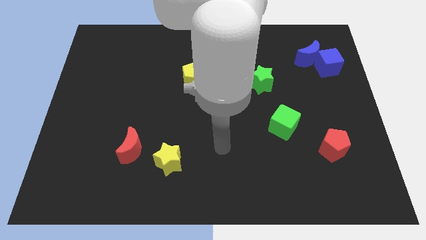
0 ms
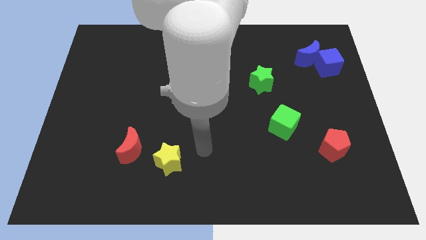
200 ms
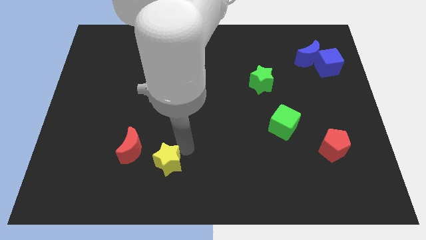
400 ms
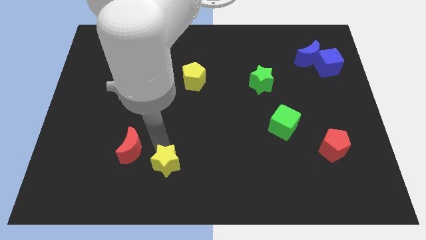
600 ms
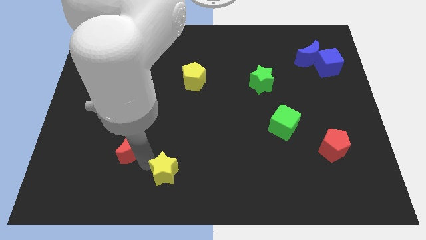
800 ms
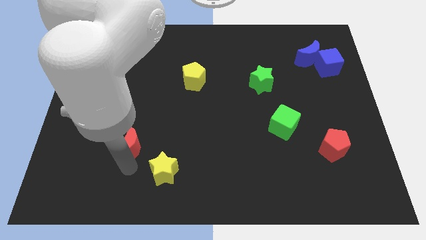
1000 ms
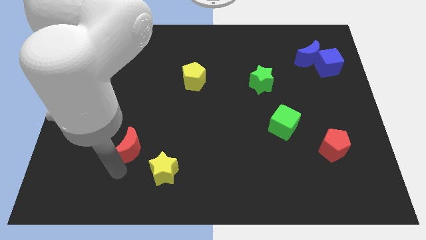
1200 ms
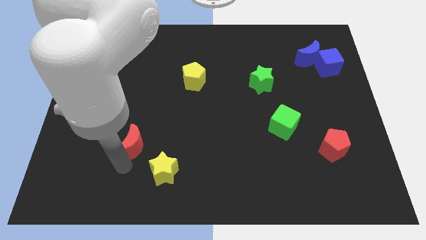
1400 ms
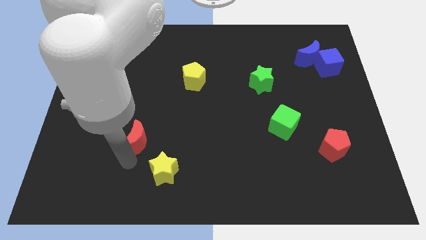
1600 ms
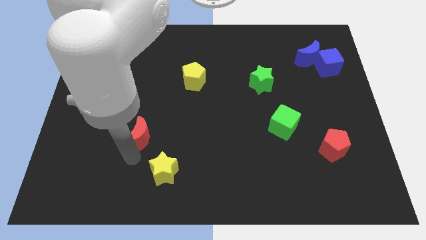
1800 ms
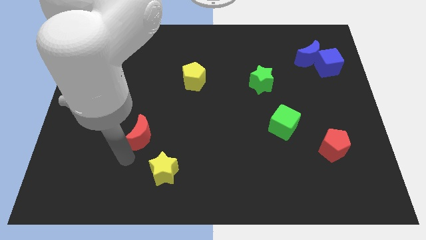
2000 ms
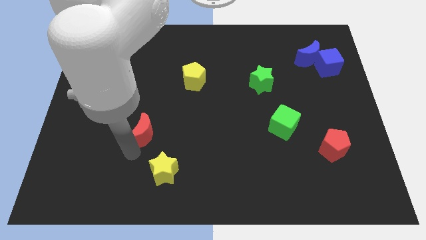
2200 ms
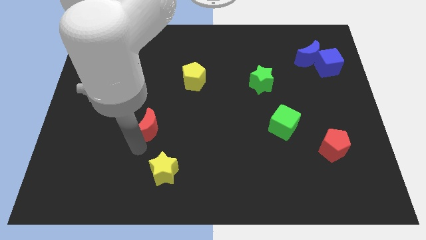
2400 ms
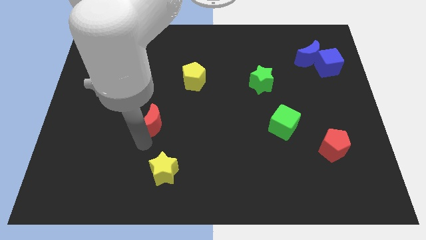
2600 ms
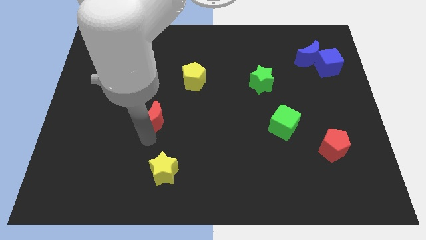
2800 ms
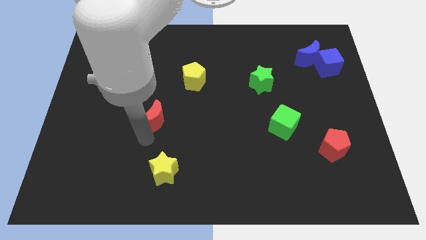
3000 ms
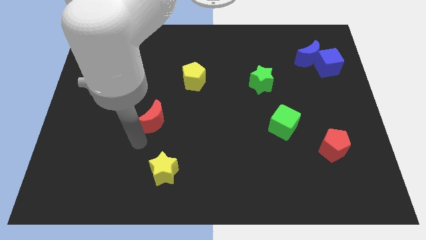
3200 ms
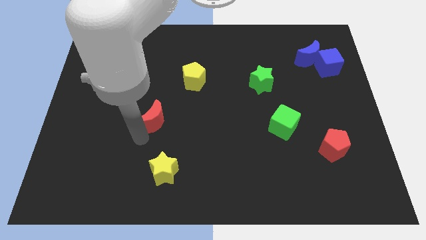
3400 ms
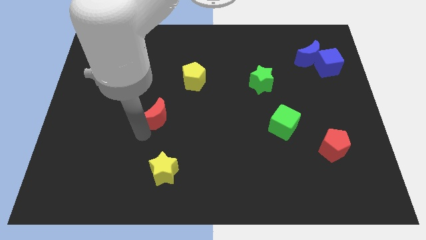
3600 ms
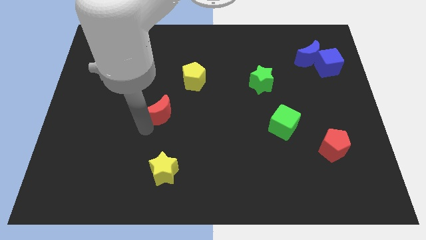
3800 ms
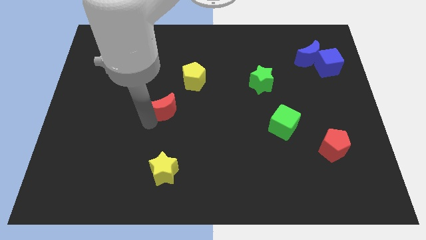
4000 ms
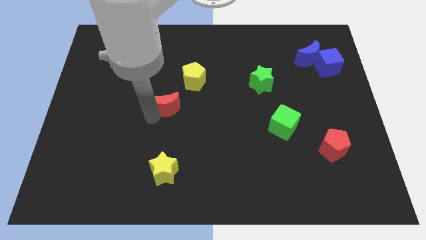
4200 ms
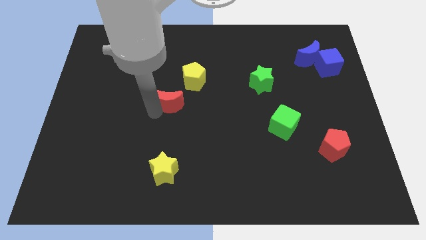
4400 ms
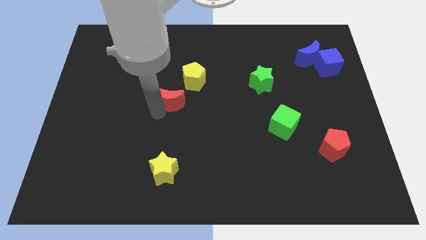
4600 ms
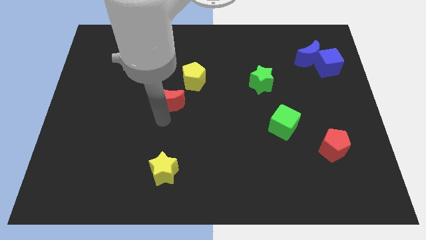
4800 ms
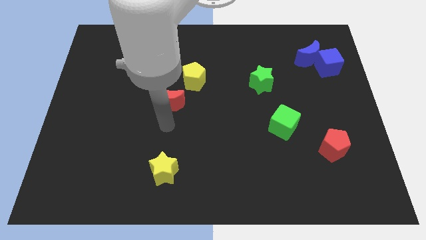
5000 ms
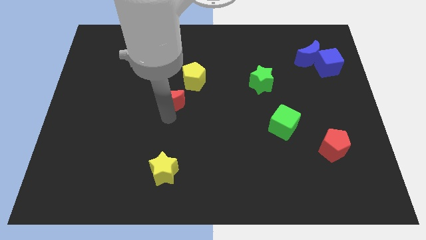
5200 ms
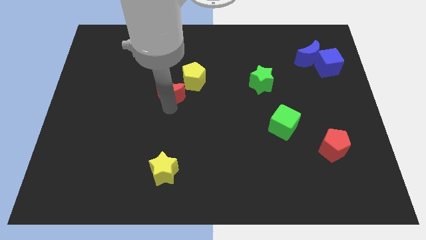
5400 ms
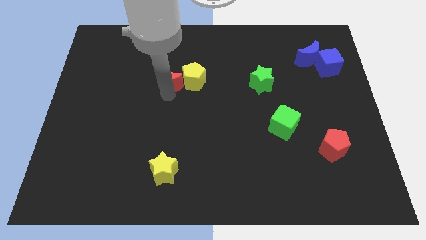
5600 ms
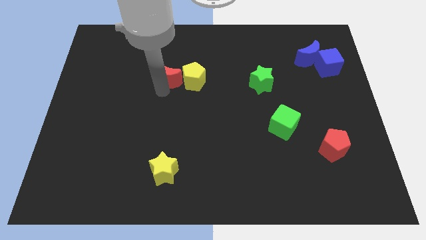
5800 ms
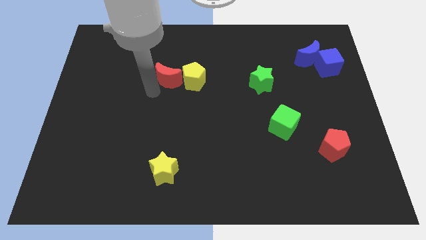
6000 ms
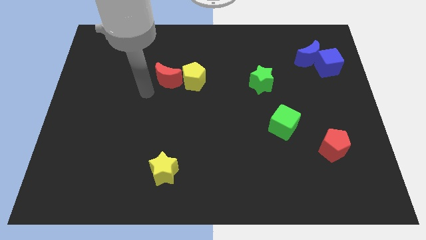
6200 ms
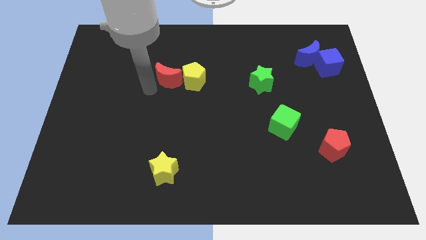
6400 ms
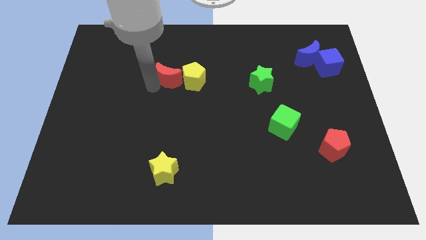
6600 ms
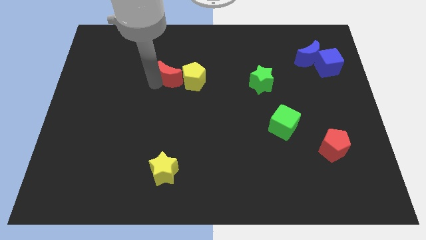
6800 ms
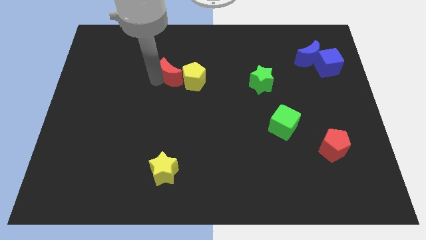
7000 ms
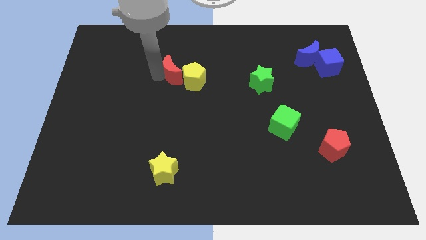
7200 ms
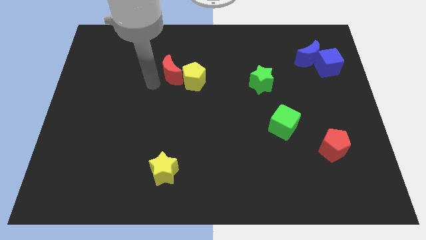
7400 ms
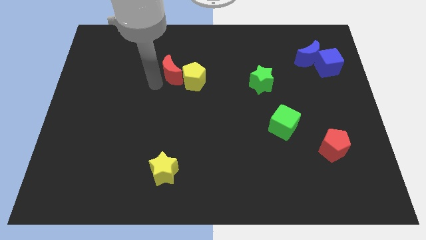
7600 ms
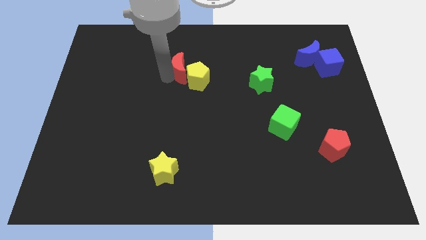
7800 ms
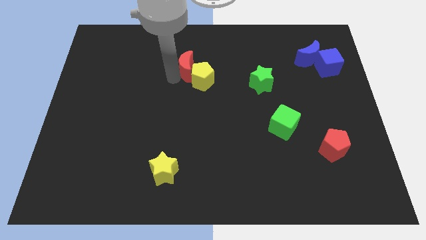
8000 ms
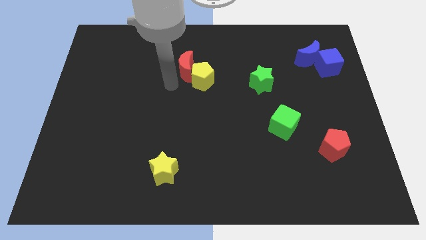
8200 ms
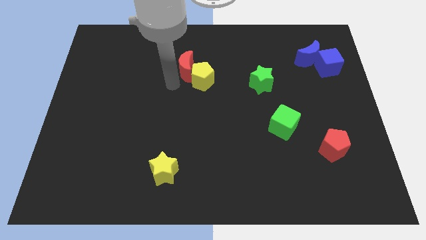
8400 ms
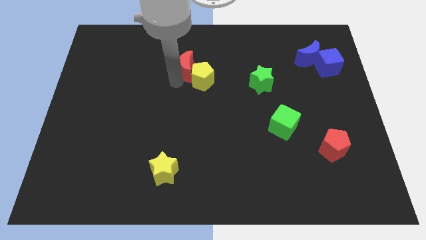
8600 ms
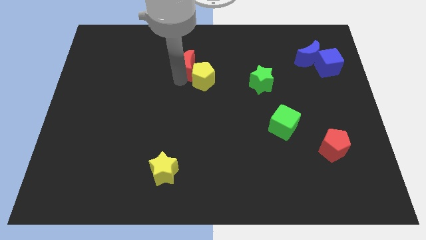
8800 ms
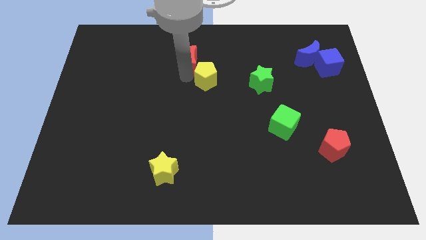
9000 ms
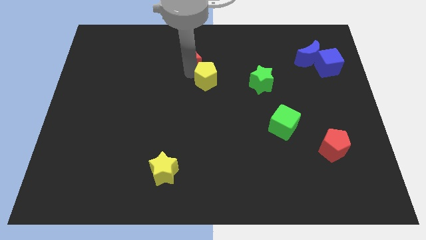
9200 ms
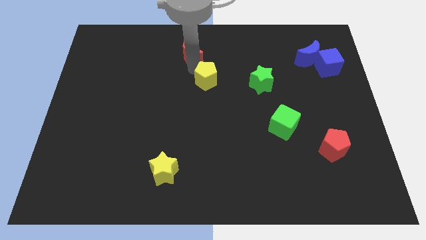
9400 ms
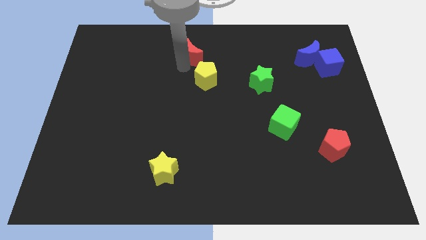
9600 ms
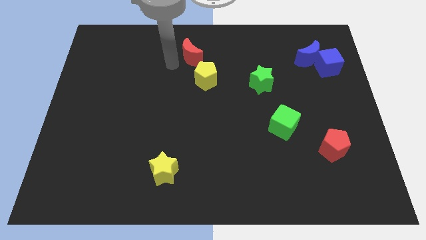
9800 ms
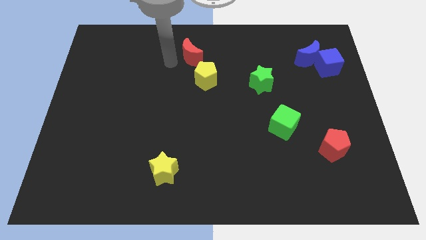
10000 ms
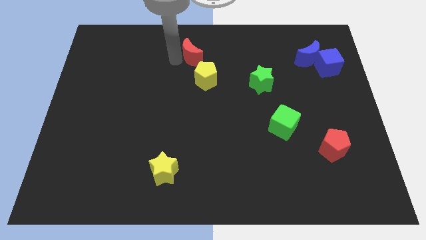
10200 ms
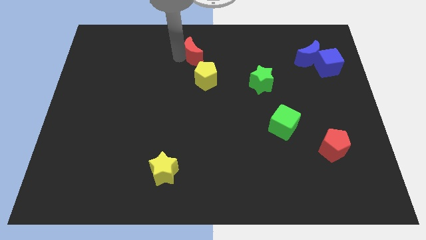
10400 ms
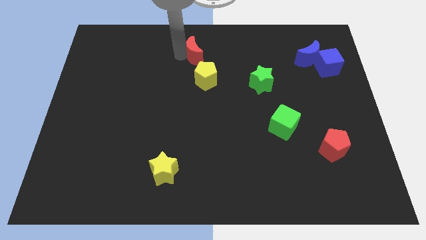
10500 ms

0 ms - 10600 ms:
move the red moon to the top side

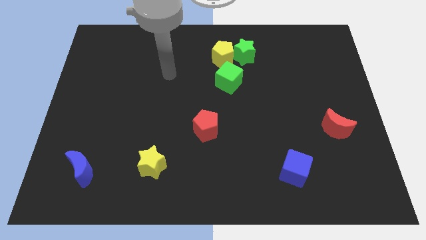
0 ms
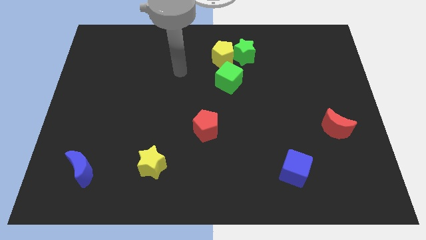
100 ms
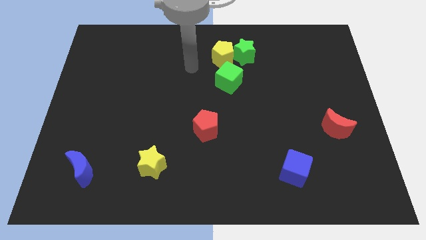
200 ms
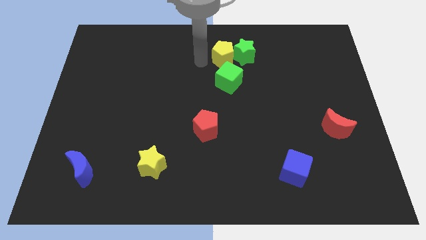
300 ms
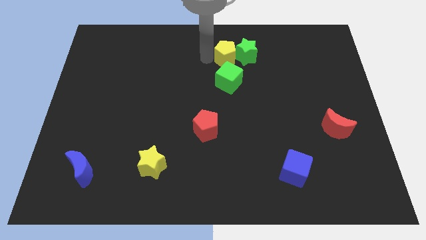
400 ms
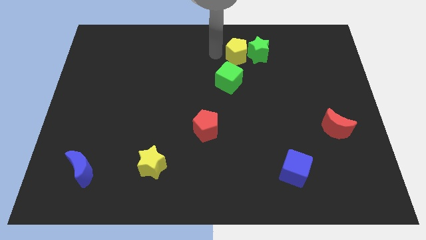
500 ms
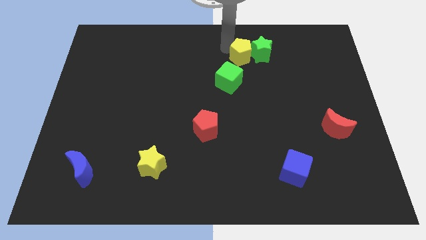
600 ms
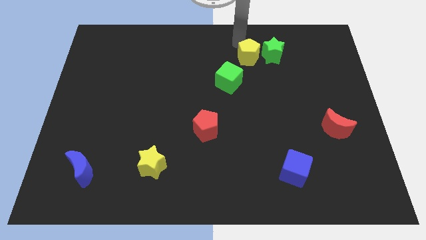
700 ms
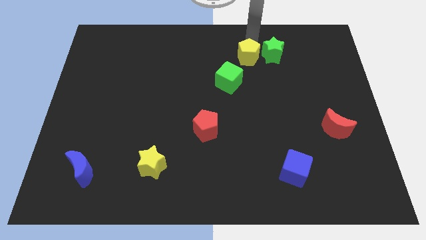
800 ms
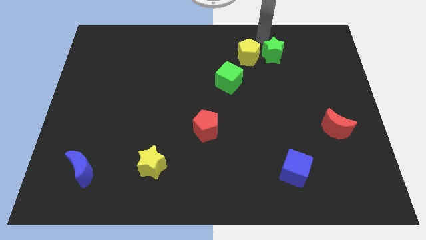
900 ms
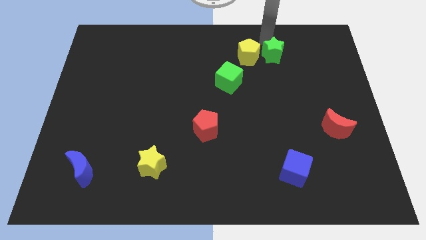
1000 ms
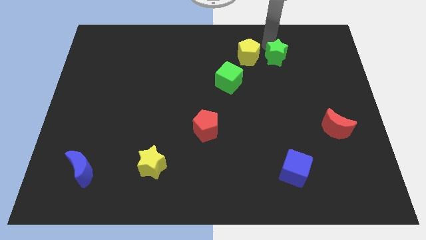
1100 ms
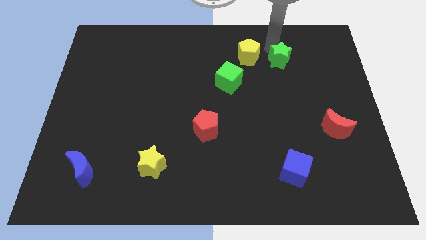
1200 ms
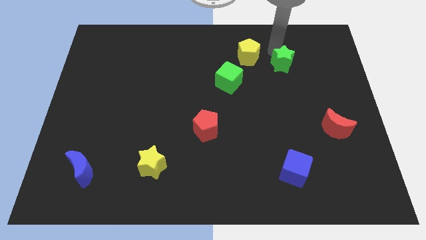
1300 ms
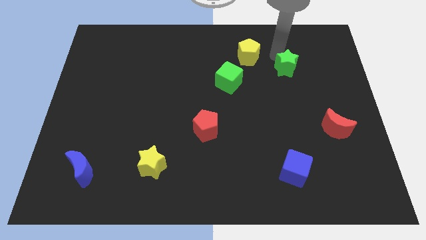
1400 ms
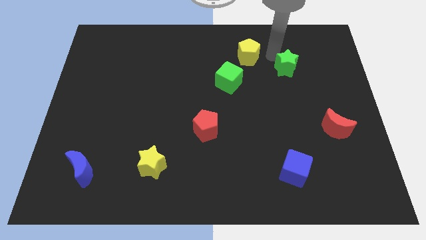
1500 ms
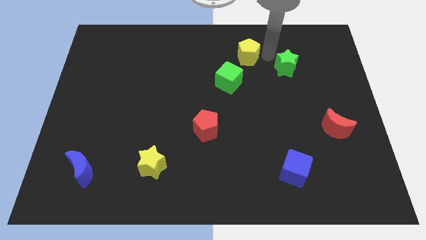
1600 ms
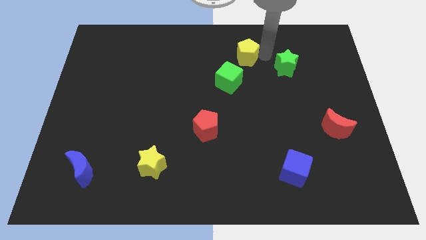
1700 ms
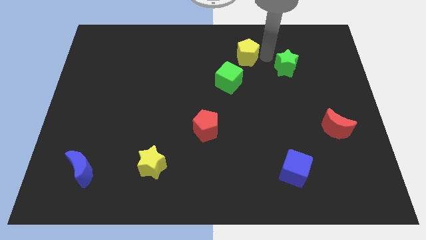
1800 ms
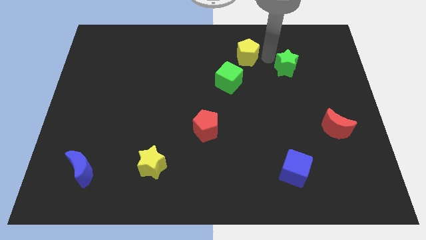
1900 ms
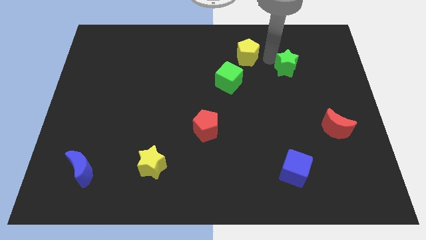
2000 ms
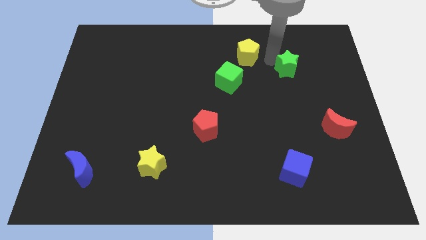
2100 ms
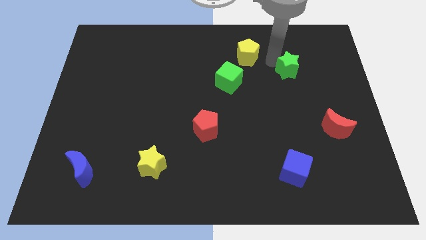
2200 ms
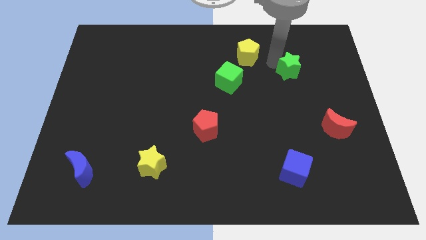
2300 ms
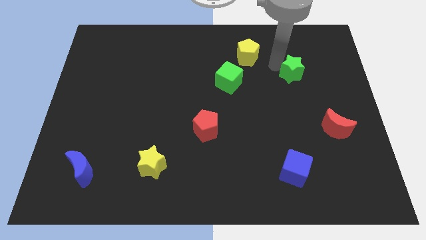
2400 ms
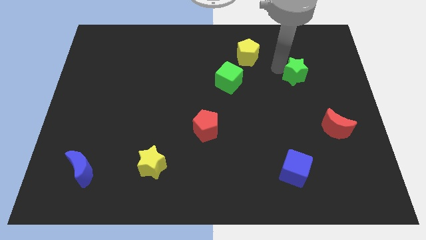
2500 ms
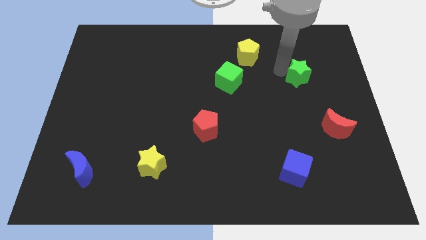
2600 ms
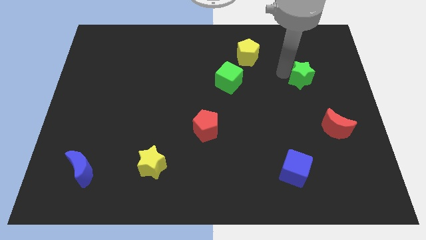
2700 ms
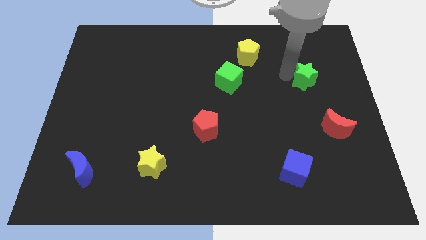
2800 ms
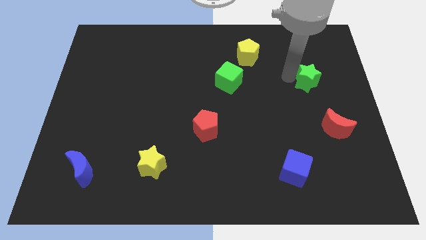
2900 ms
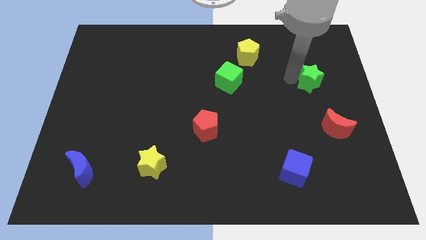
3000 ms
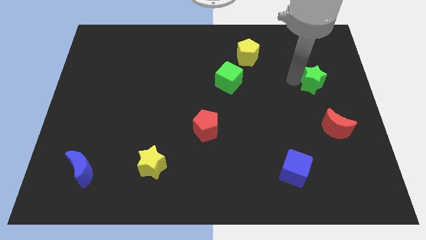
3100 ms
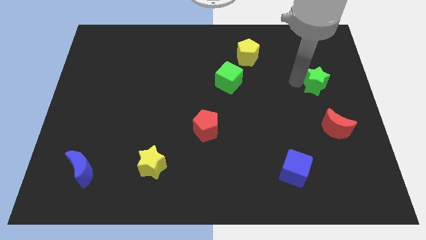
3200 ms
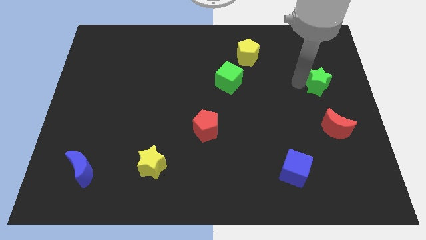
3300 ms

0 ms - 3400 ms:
push the green star to the right side of the board
